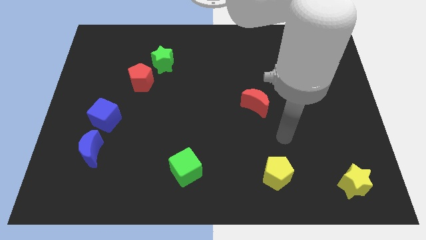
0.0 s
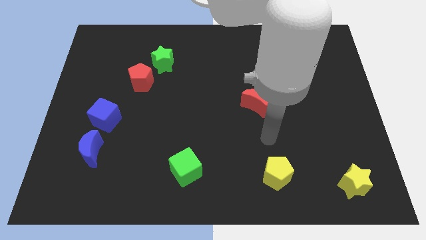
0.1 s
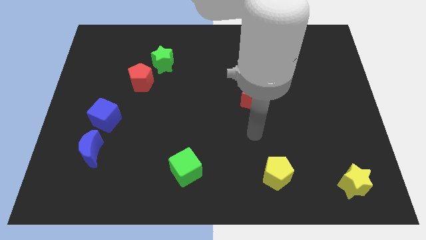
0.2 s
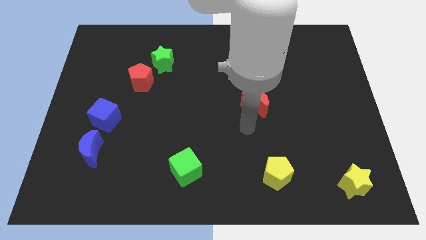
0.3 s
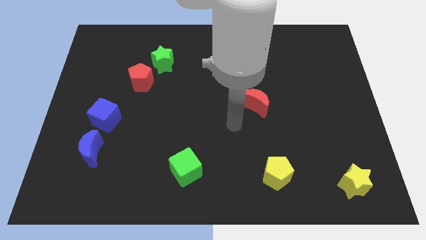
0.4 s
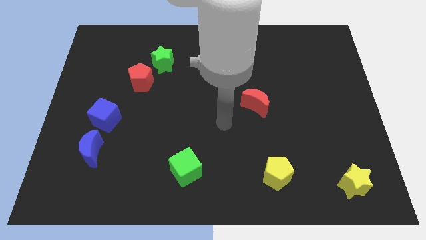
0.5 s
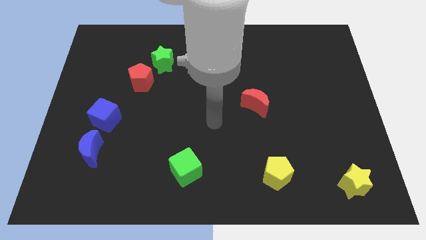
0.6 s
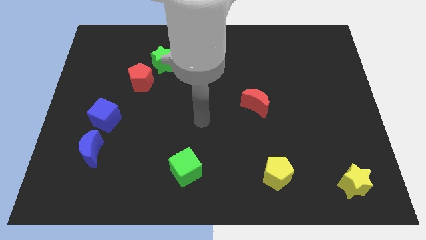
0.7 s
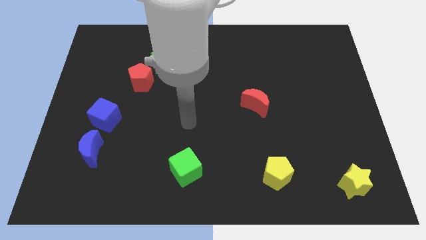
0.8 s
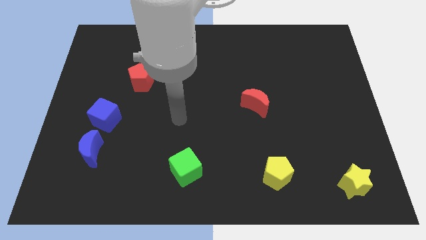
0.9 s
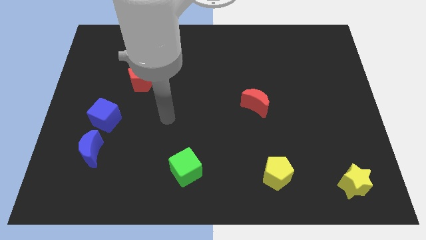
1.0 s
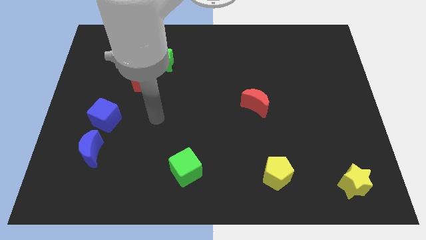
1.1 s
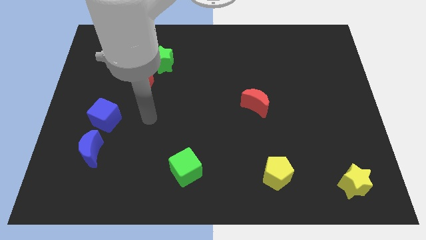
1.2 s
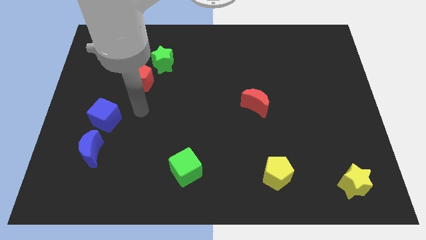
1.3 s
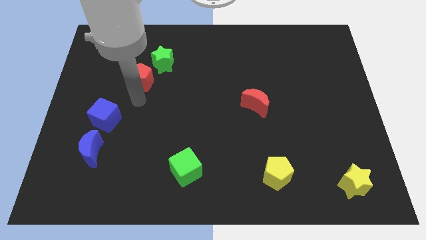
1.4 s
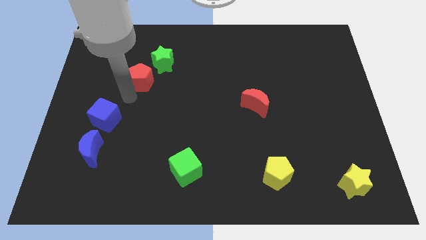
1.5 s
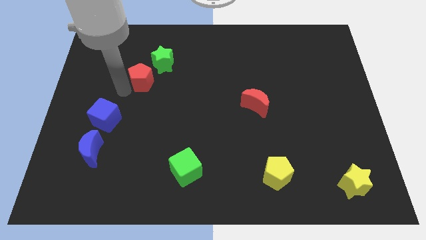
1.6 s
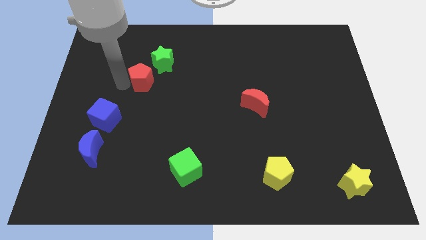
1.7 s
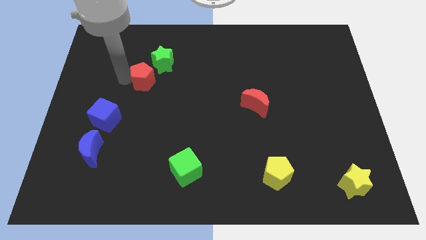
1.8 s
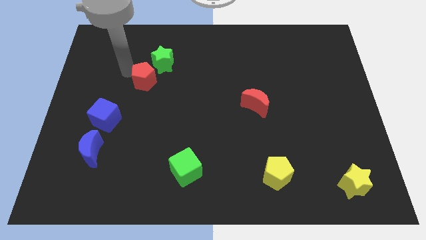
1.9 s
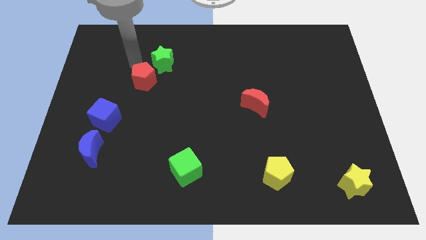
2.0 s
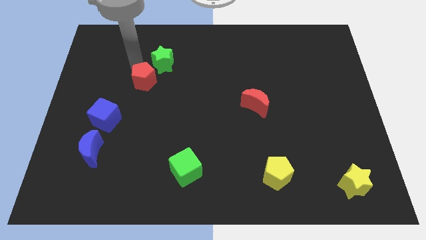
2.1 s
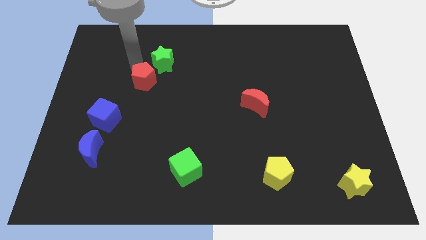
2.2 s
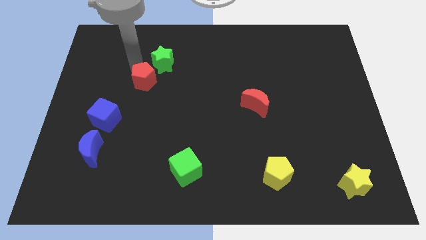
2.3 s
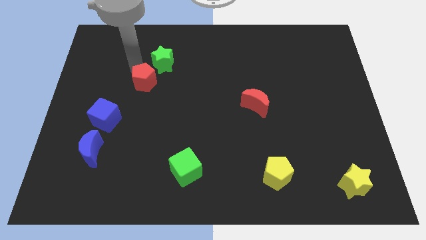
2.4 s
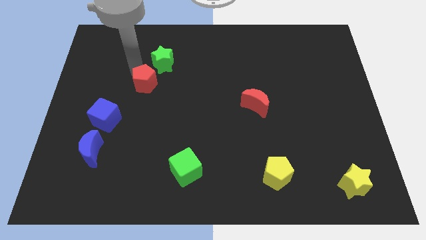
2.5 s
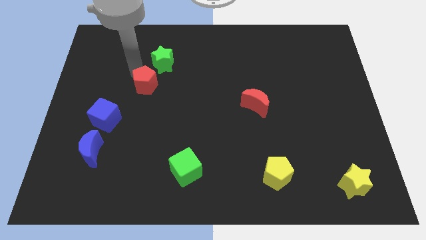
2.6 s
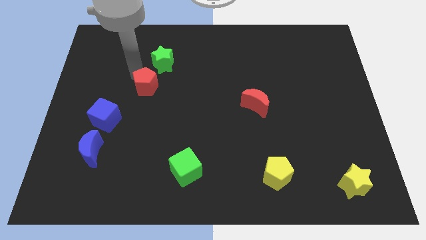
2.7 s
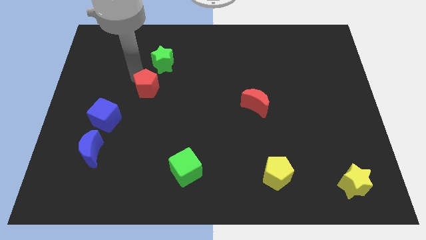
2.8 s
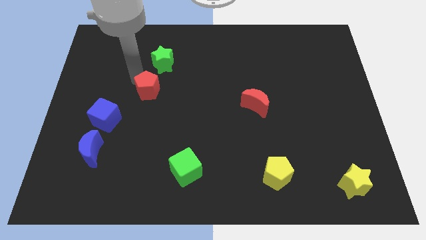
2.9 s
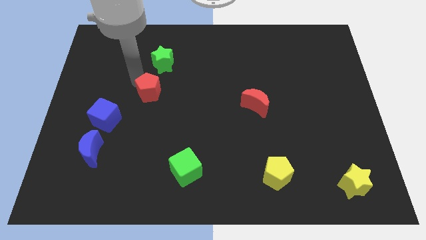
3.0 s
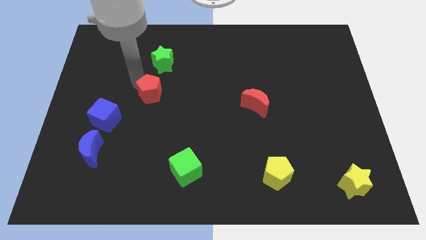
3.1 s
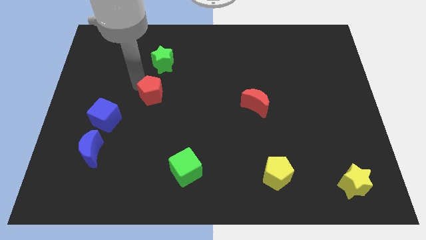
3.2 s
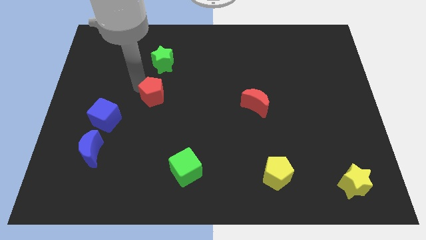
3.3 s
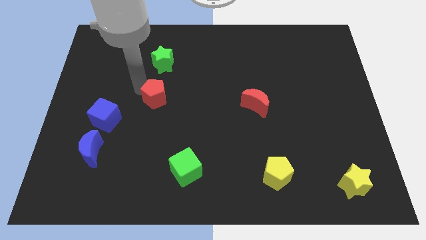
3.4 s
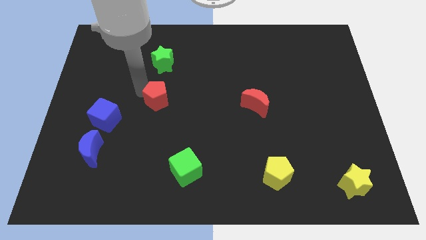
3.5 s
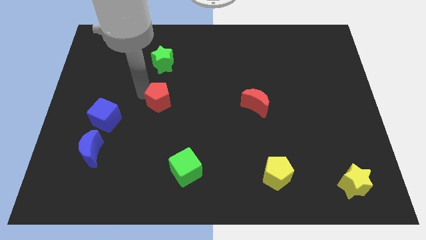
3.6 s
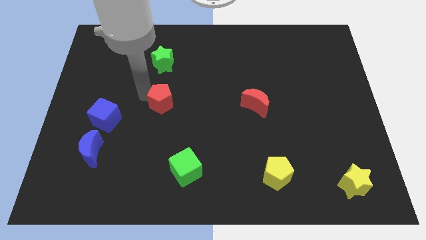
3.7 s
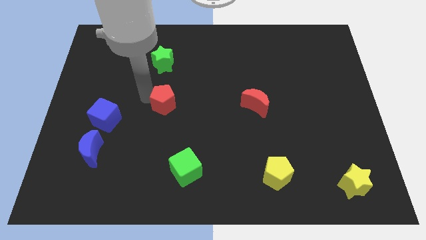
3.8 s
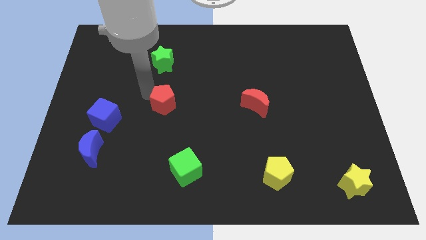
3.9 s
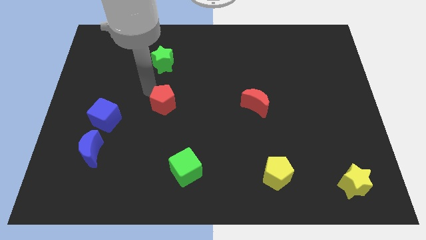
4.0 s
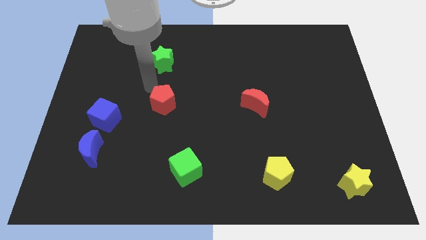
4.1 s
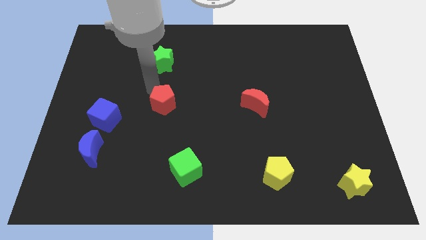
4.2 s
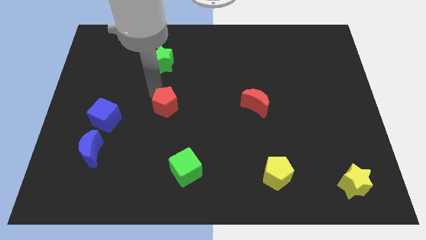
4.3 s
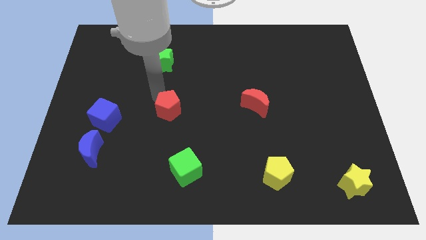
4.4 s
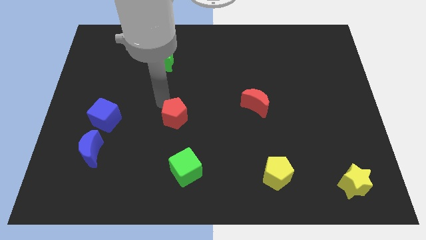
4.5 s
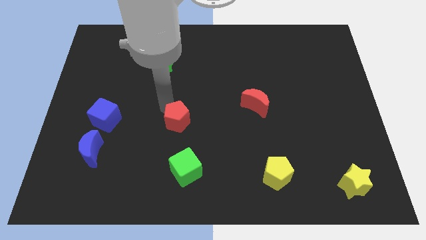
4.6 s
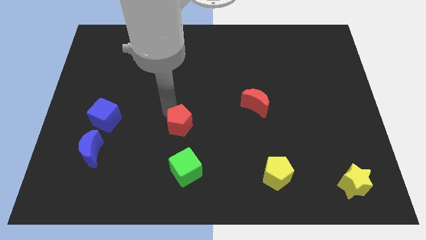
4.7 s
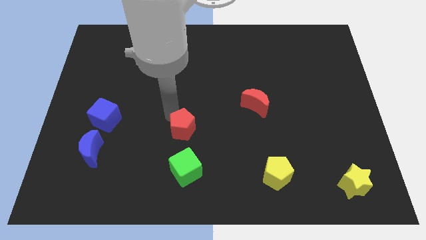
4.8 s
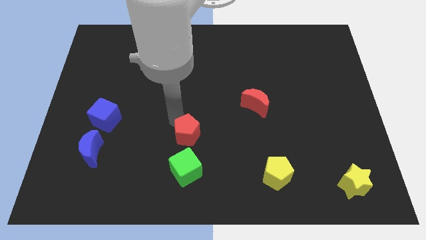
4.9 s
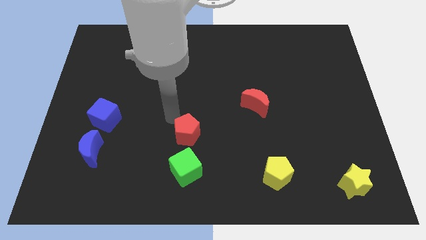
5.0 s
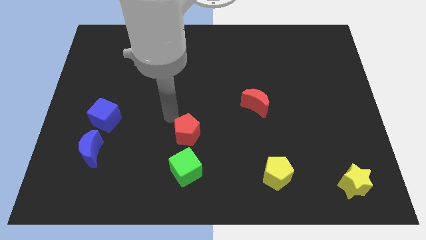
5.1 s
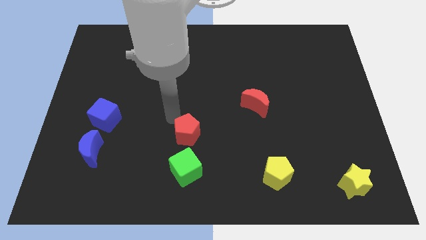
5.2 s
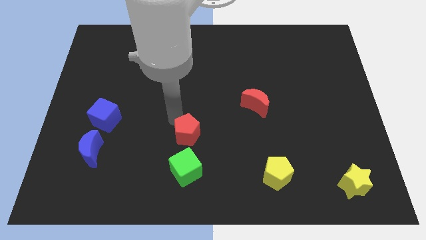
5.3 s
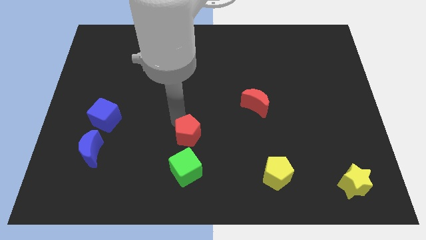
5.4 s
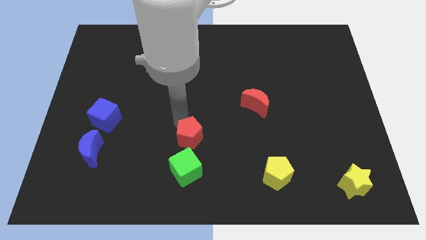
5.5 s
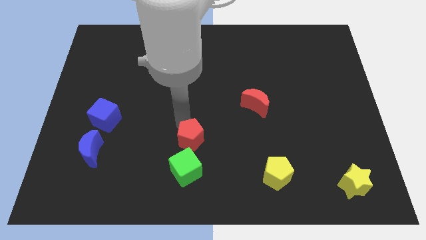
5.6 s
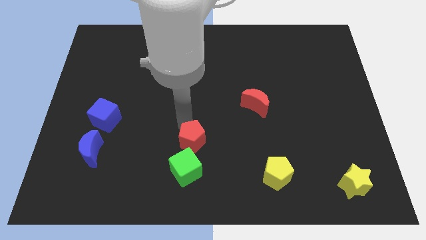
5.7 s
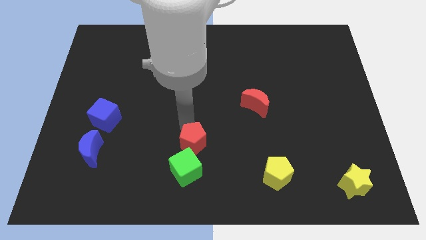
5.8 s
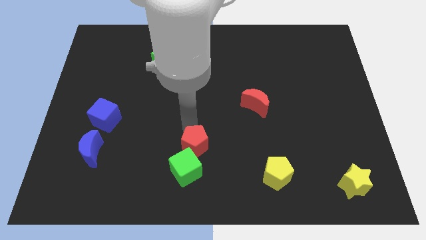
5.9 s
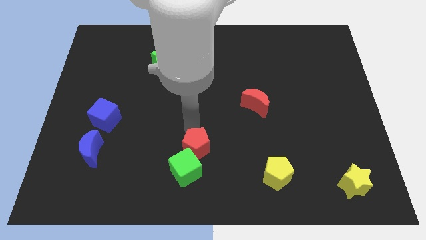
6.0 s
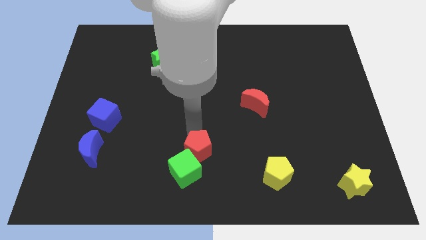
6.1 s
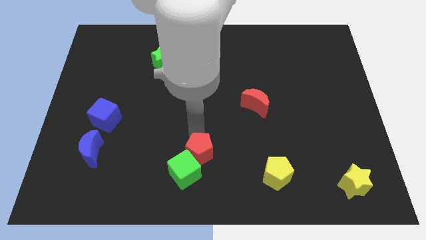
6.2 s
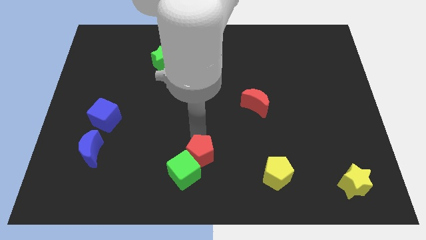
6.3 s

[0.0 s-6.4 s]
move the red pentagon to the bottom
